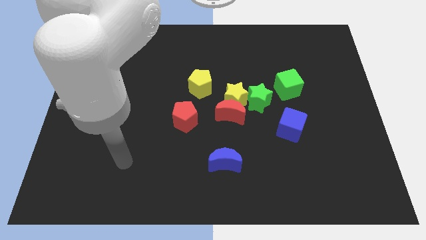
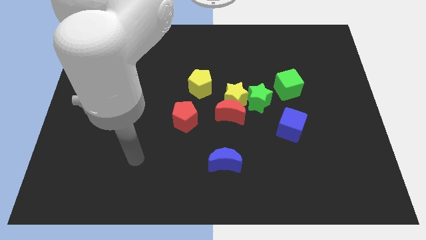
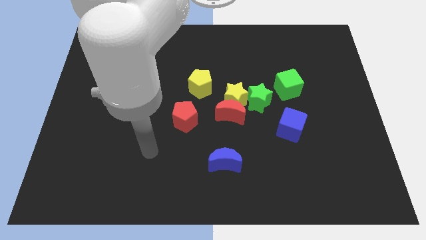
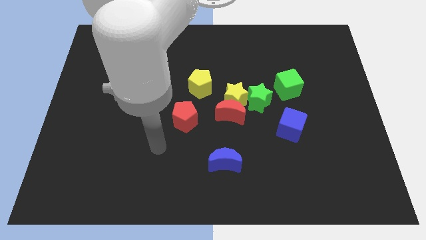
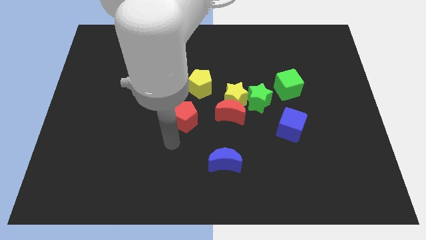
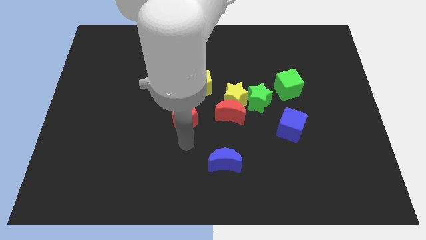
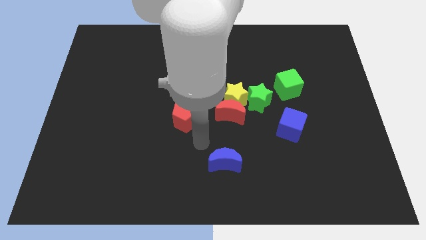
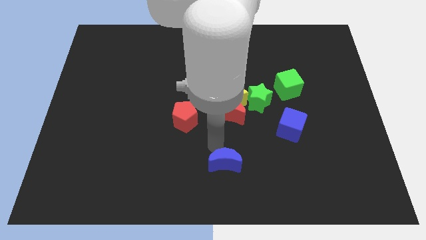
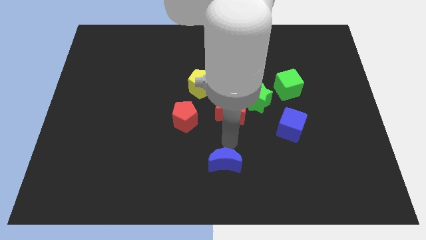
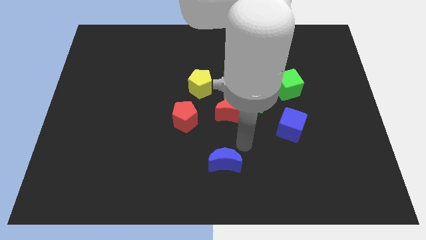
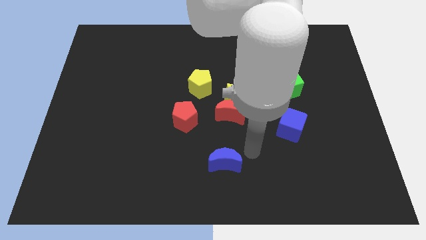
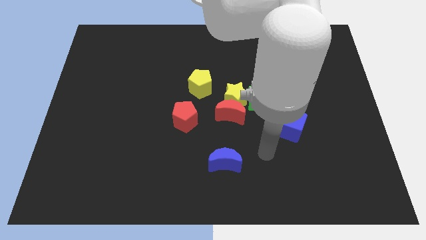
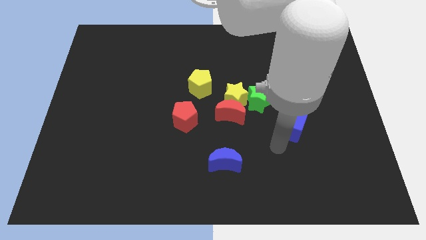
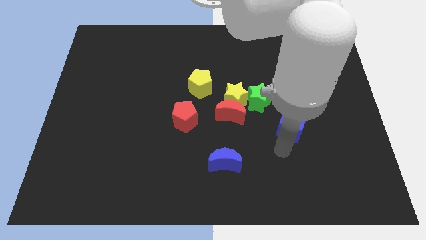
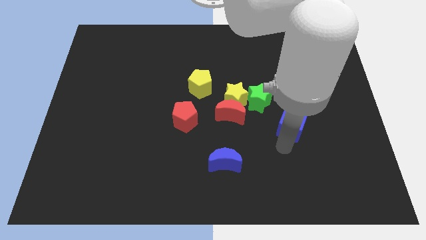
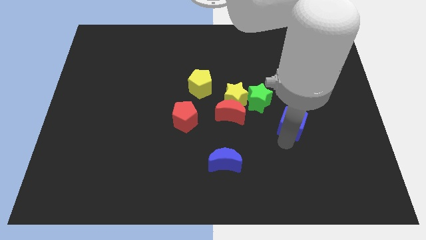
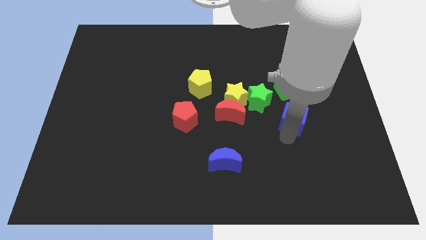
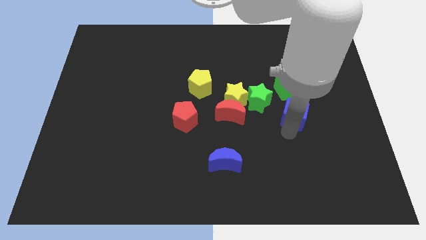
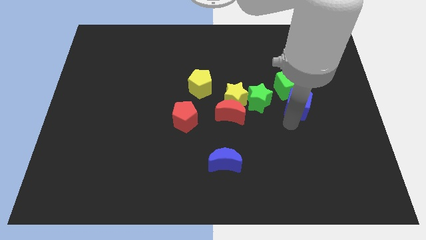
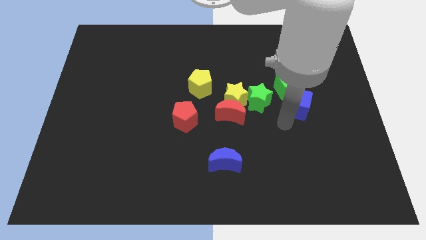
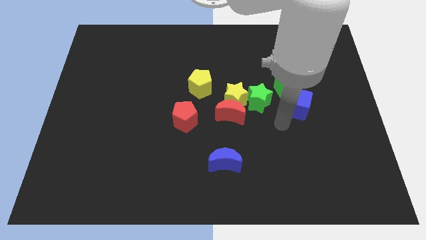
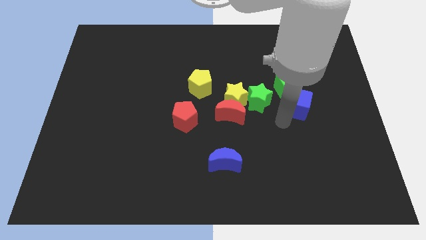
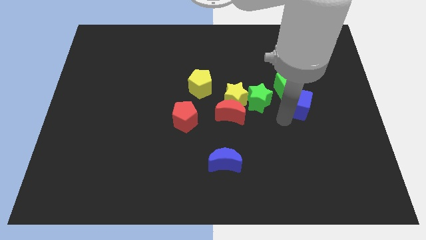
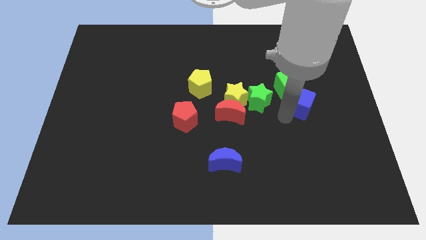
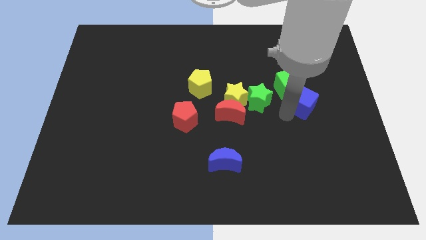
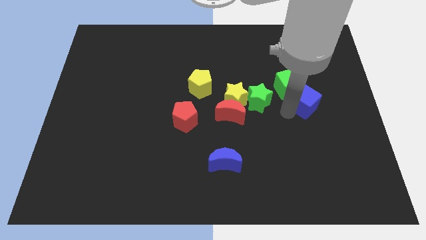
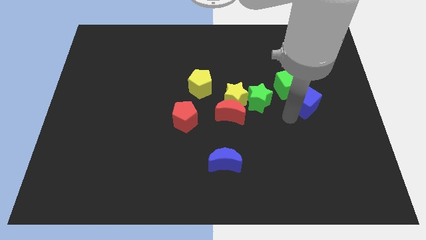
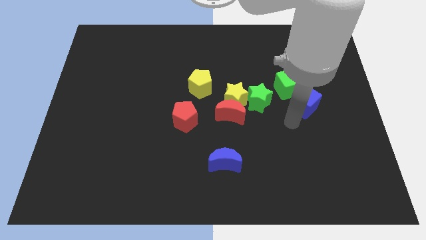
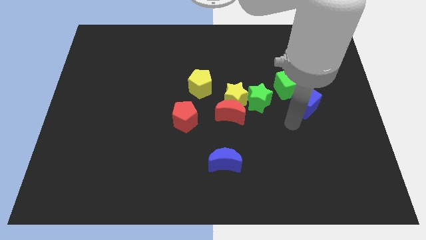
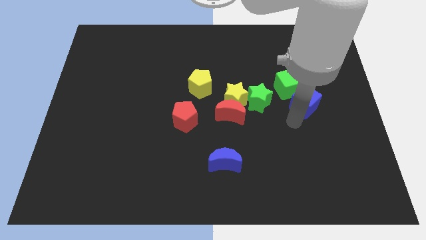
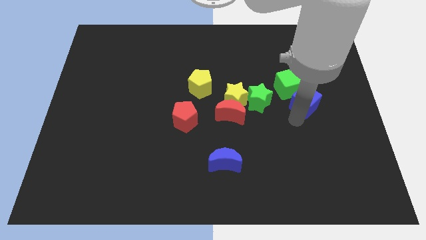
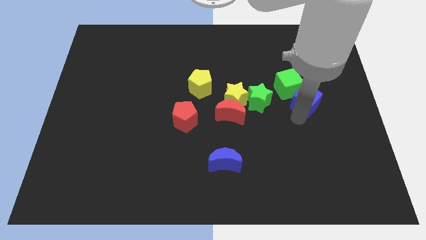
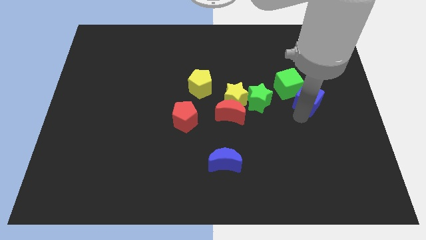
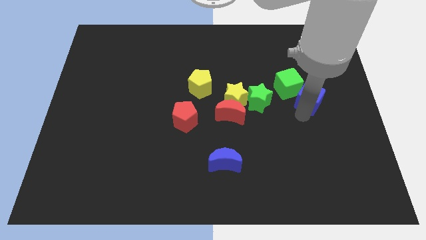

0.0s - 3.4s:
slide the blue cube slightly upwards

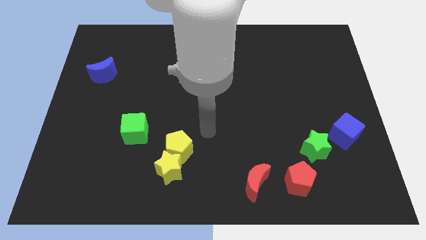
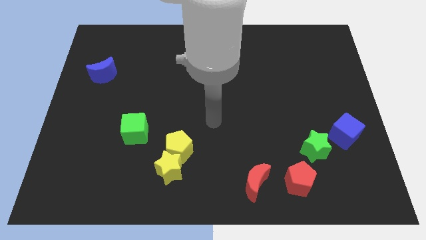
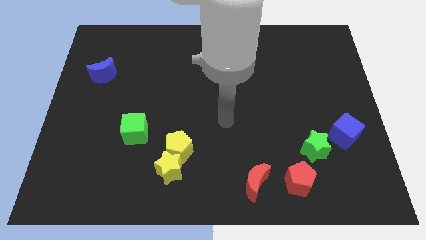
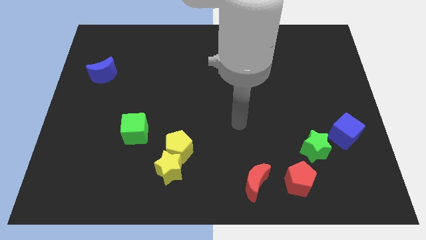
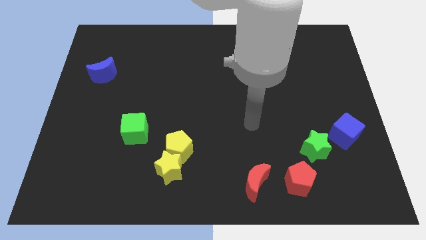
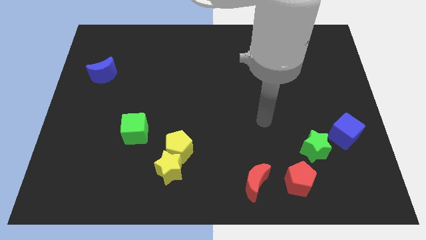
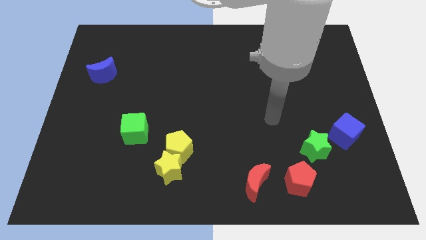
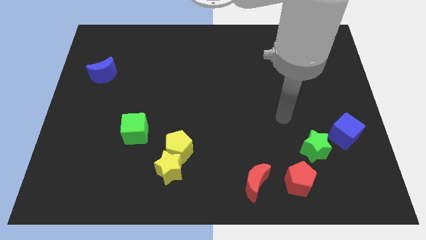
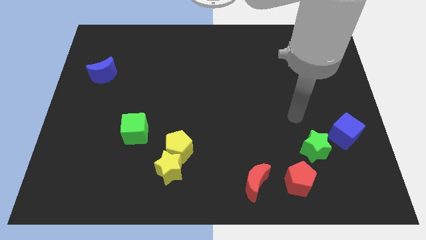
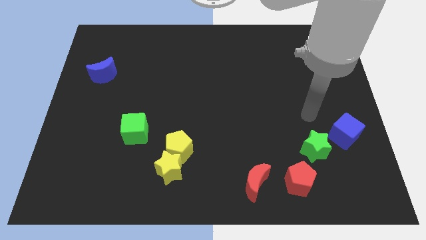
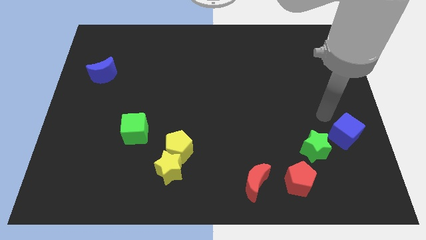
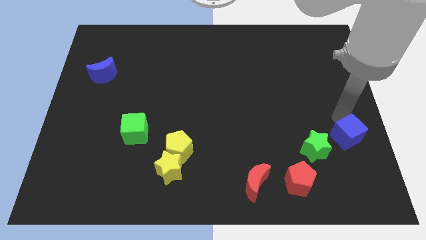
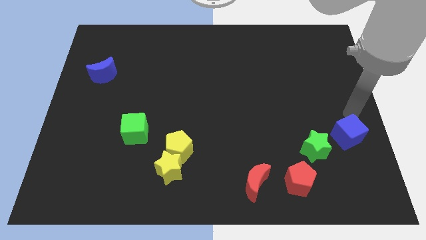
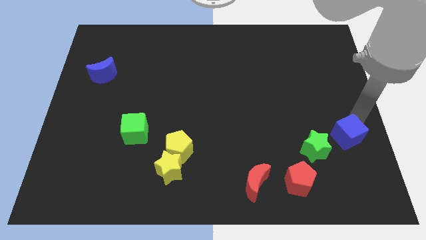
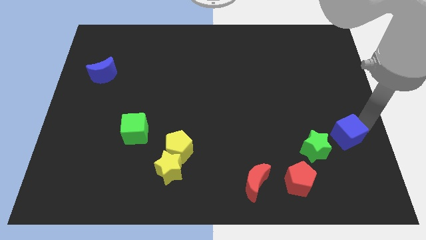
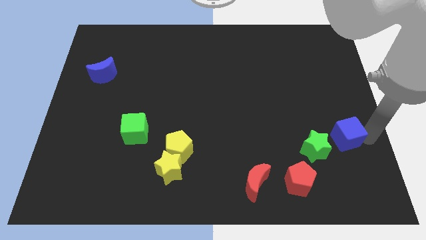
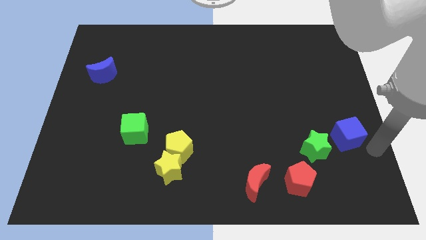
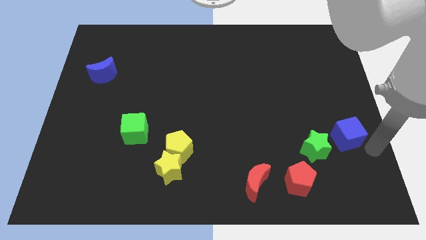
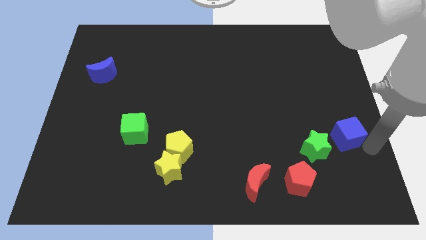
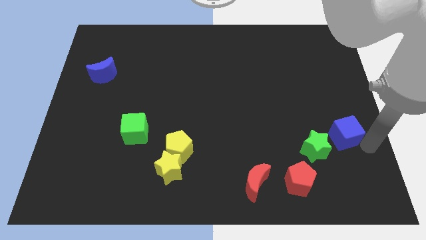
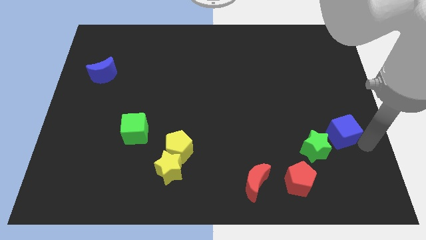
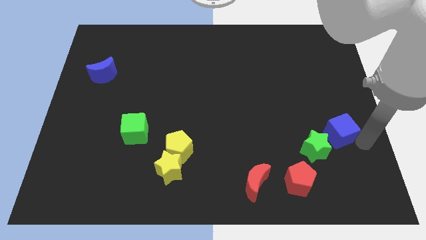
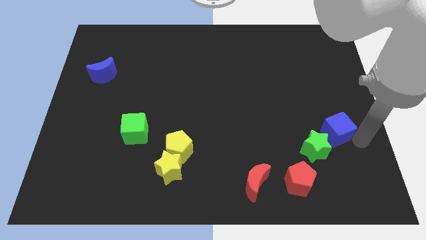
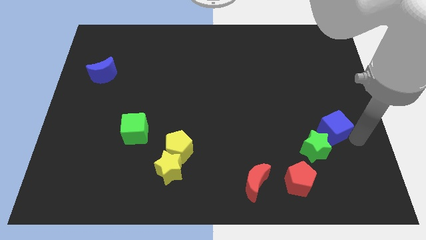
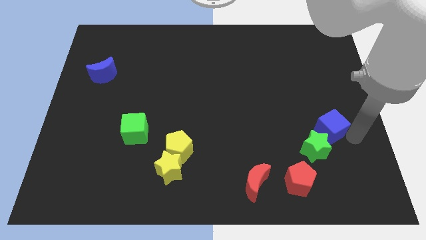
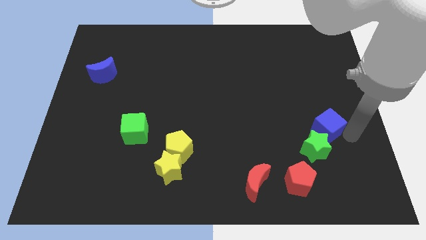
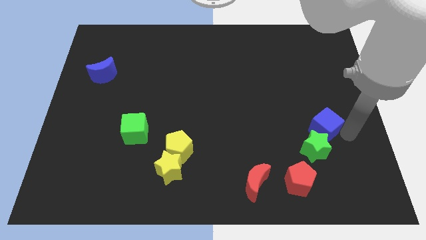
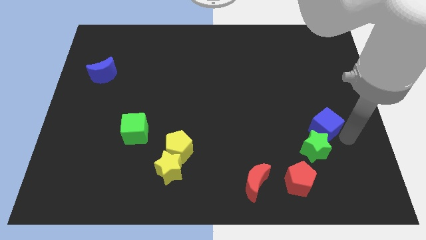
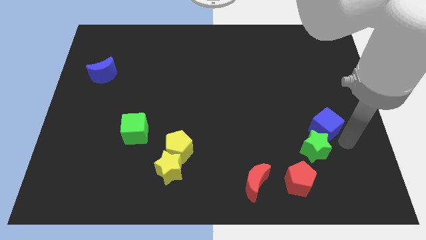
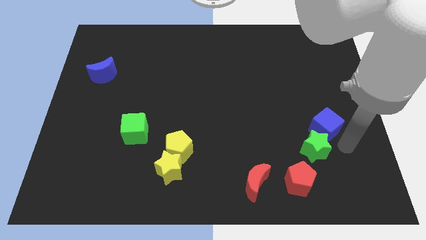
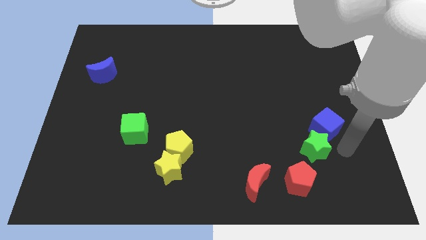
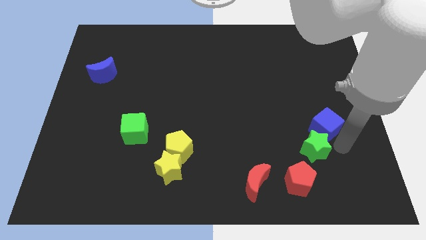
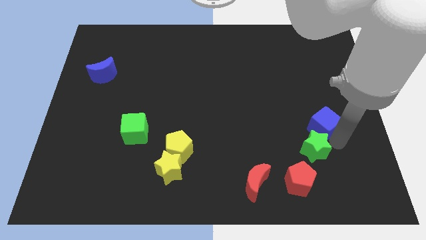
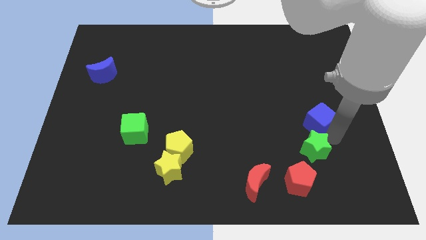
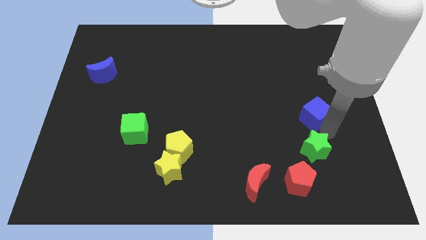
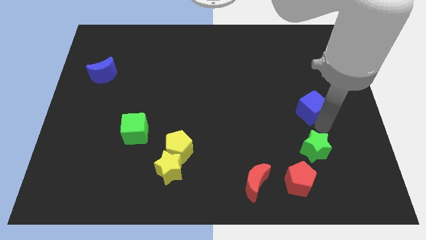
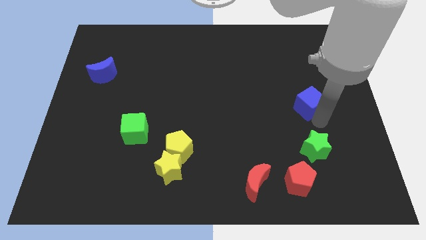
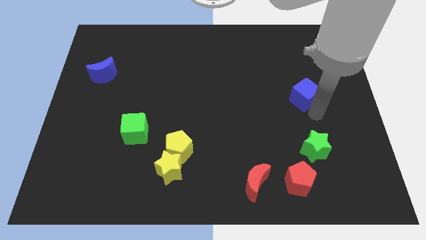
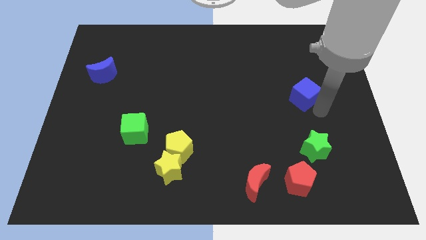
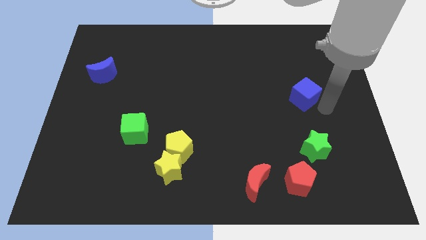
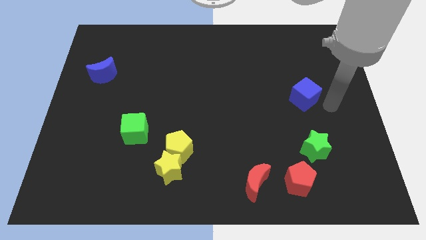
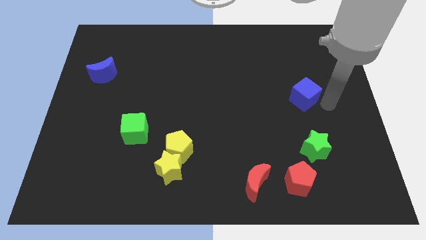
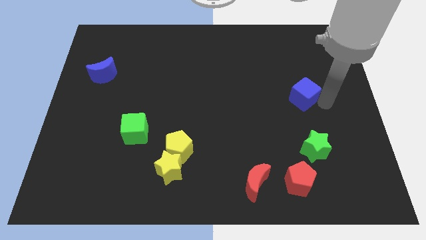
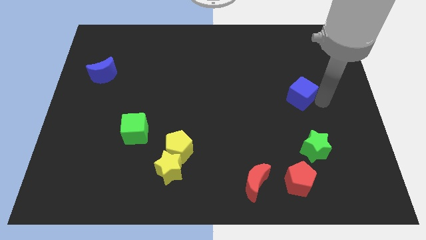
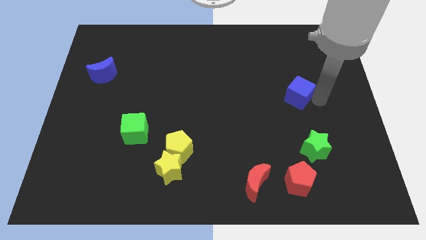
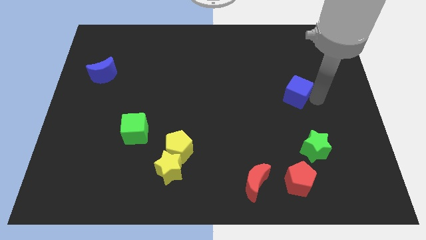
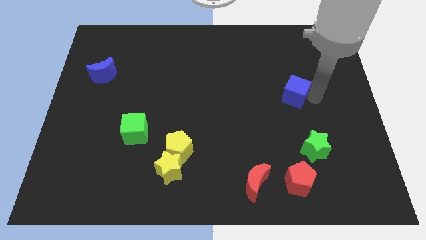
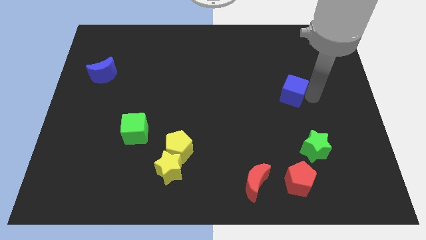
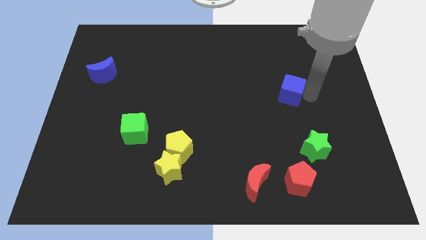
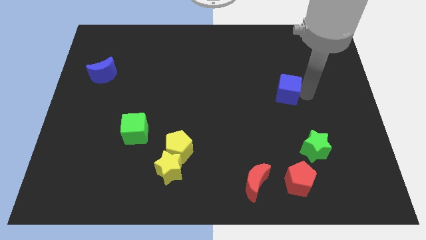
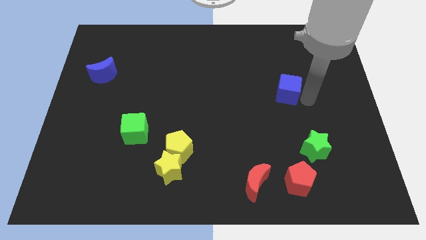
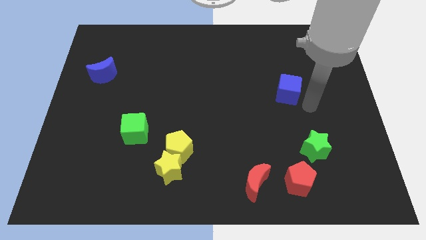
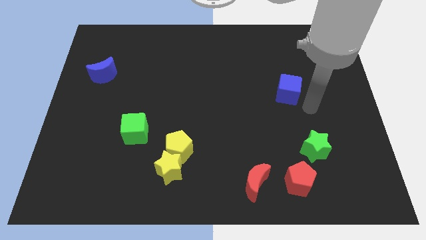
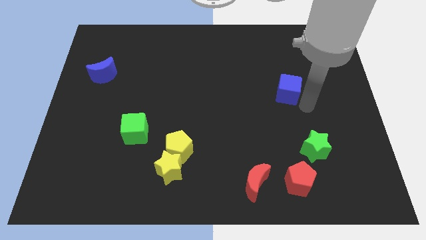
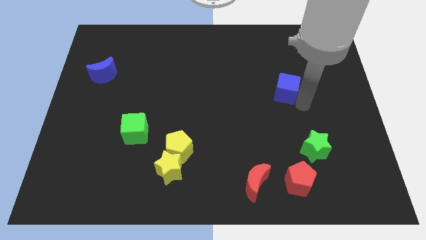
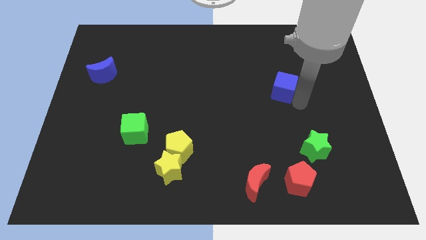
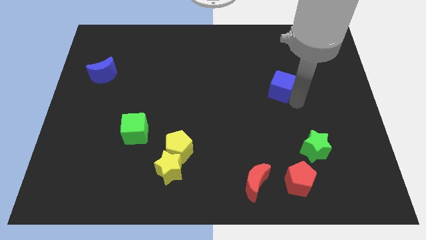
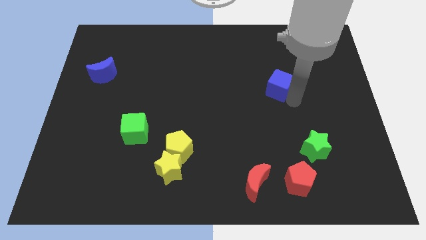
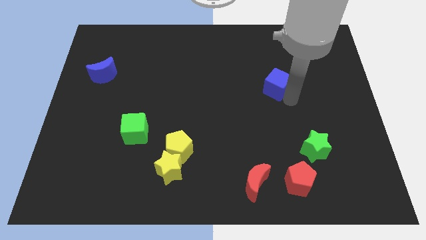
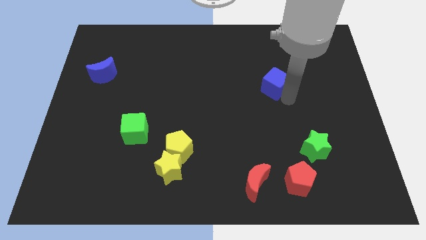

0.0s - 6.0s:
push the blue cube upwards and left diagonally
